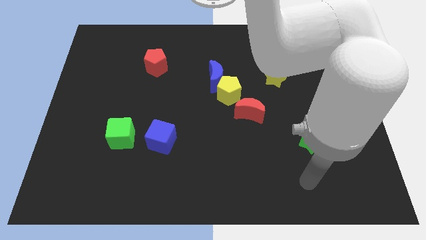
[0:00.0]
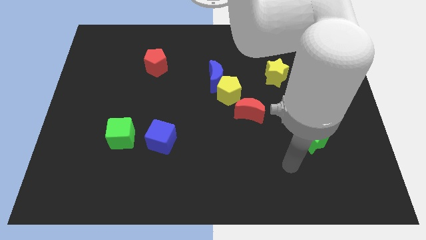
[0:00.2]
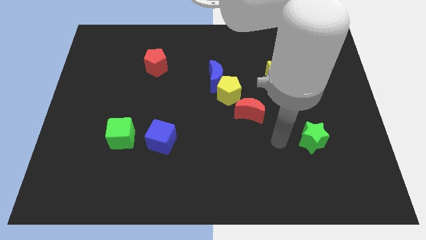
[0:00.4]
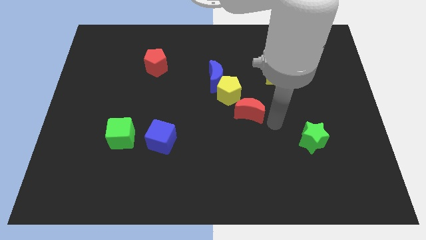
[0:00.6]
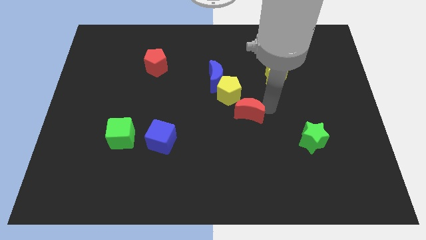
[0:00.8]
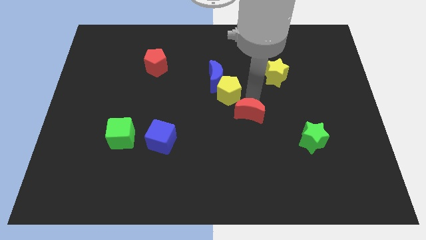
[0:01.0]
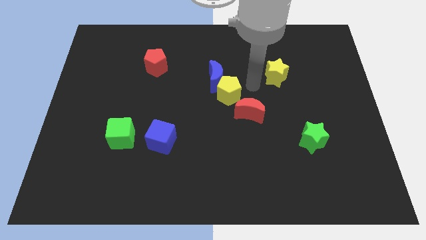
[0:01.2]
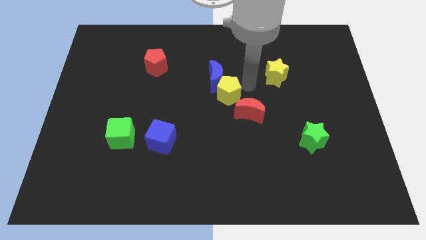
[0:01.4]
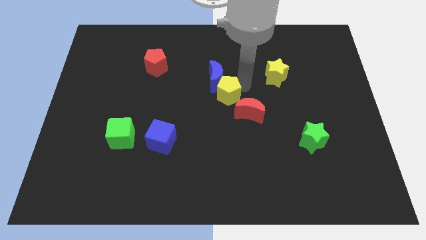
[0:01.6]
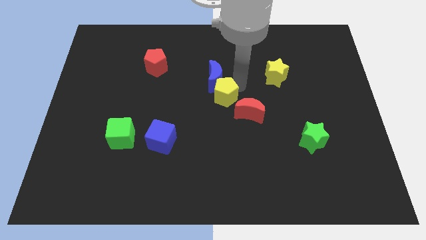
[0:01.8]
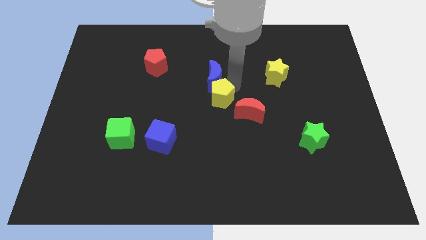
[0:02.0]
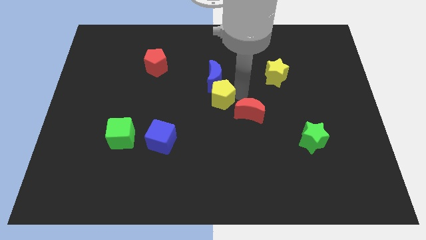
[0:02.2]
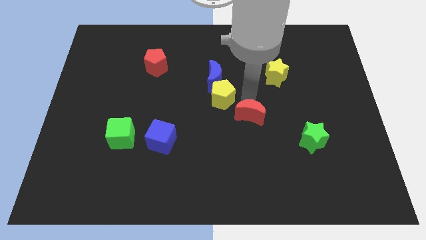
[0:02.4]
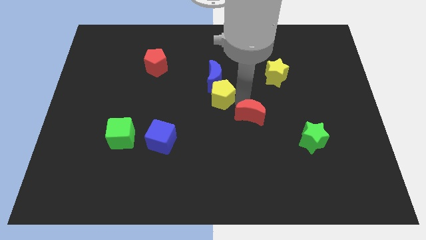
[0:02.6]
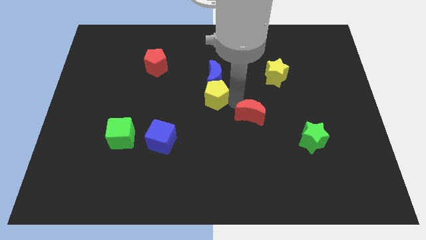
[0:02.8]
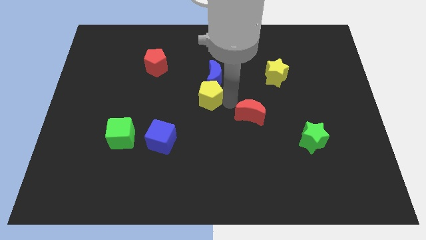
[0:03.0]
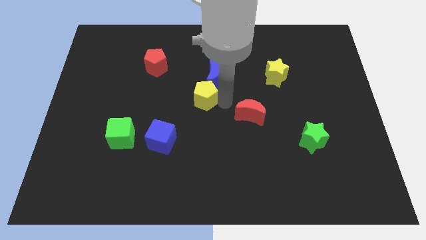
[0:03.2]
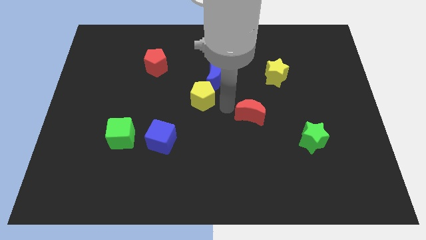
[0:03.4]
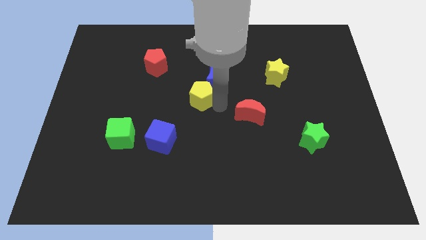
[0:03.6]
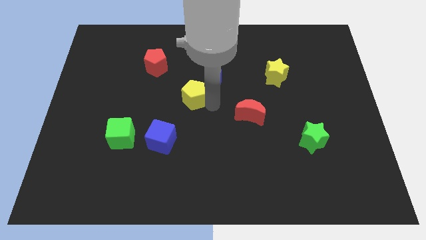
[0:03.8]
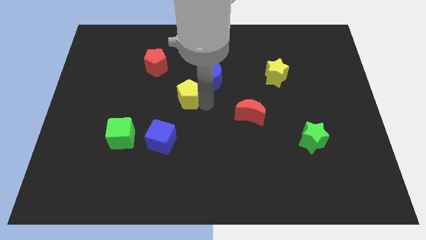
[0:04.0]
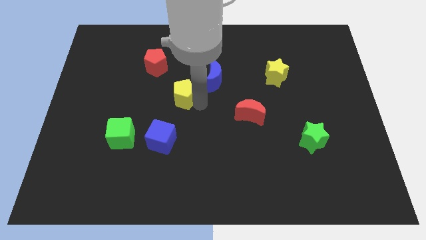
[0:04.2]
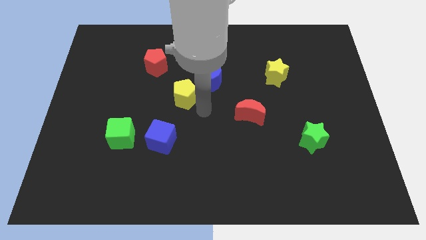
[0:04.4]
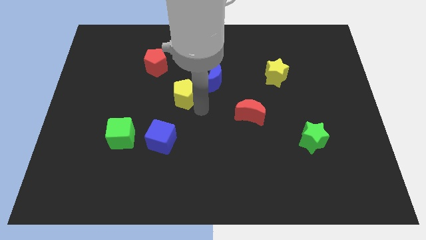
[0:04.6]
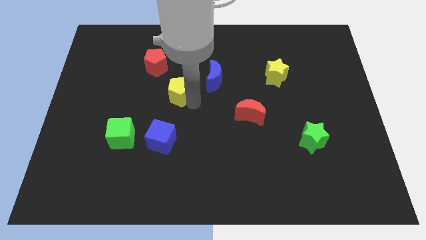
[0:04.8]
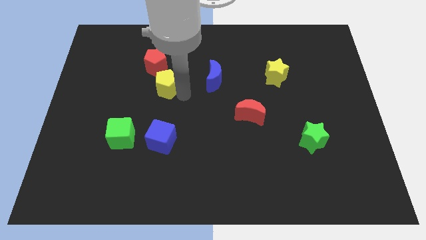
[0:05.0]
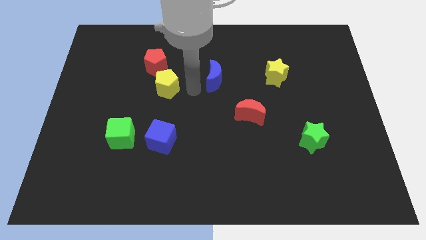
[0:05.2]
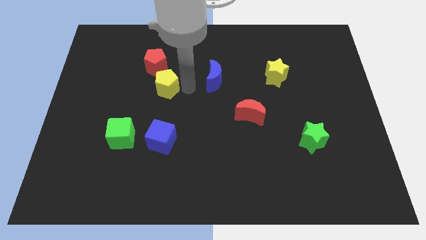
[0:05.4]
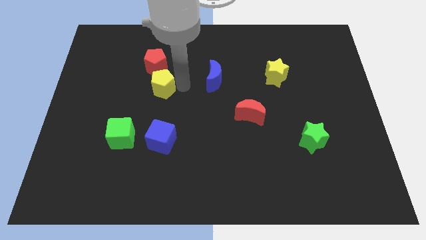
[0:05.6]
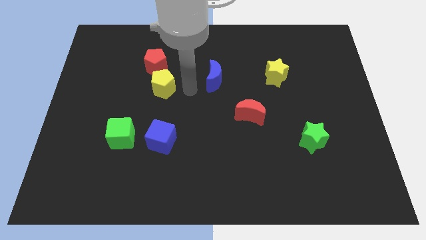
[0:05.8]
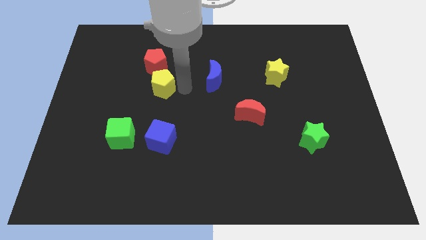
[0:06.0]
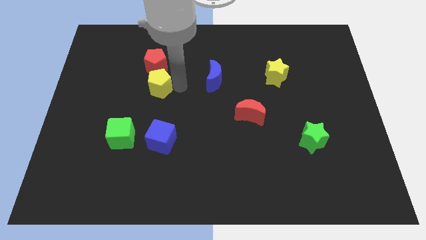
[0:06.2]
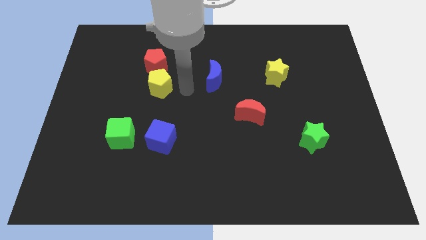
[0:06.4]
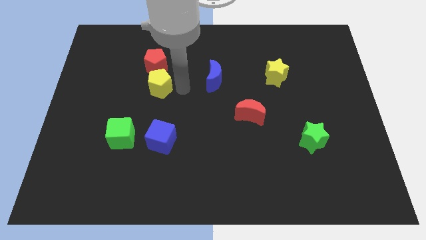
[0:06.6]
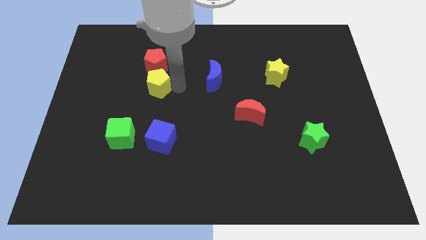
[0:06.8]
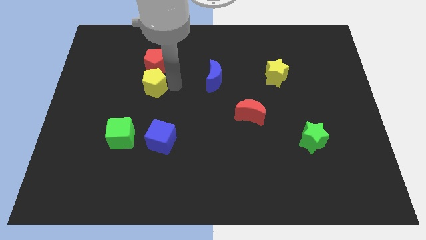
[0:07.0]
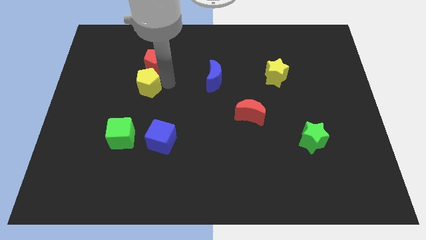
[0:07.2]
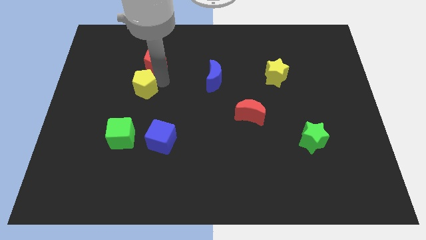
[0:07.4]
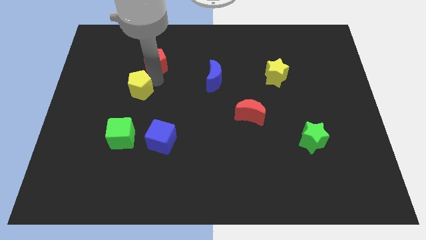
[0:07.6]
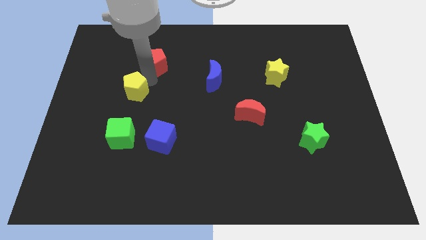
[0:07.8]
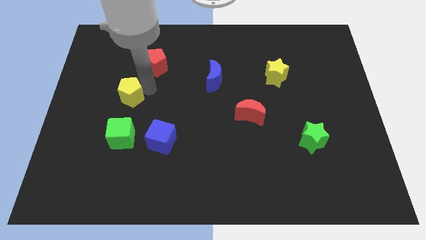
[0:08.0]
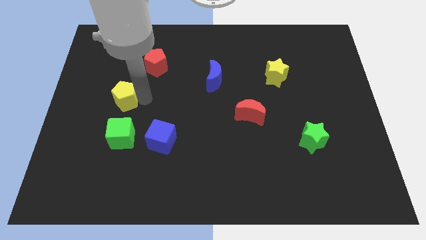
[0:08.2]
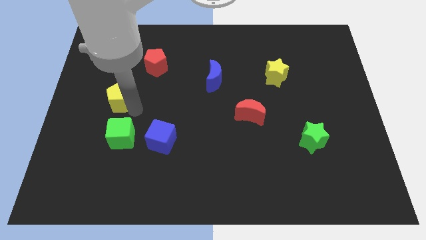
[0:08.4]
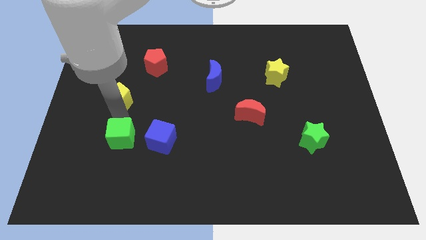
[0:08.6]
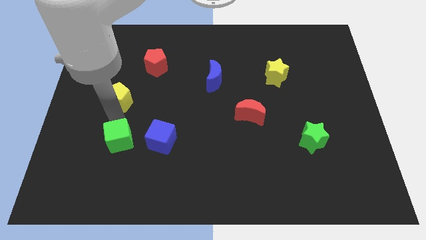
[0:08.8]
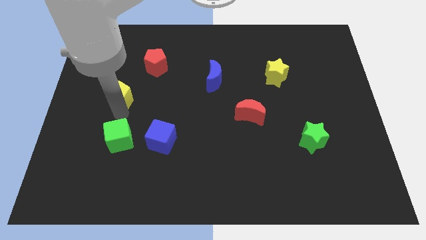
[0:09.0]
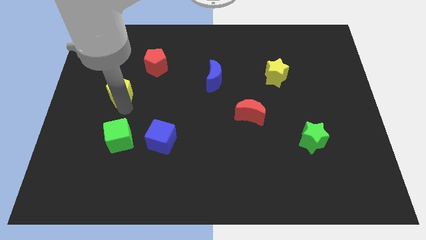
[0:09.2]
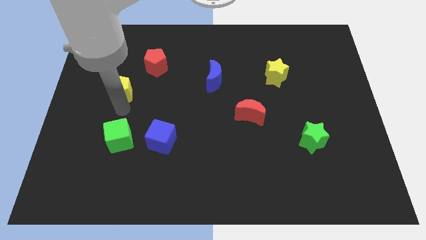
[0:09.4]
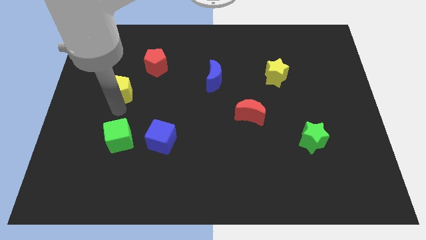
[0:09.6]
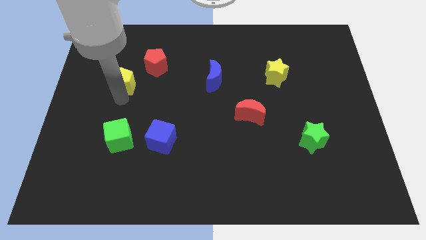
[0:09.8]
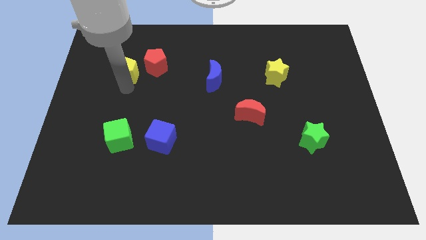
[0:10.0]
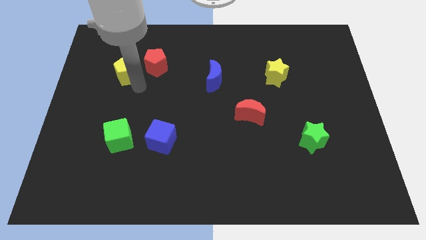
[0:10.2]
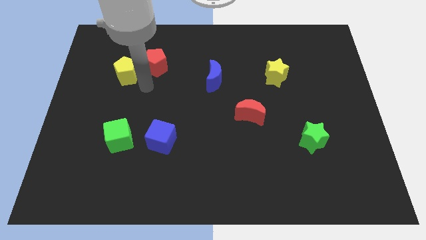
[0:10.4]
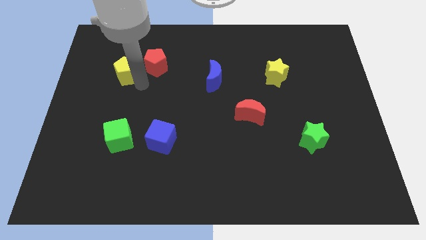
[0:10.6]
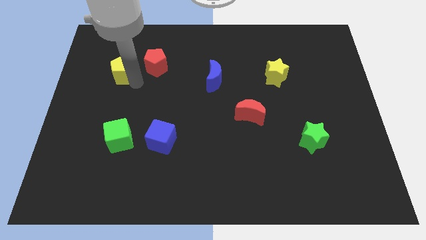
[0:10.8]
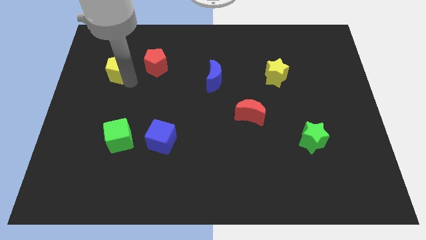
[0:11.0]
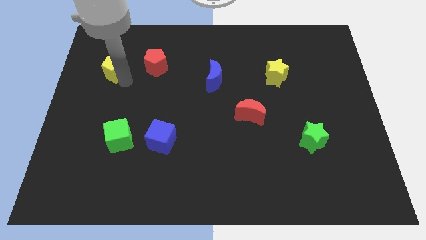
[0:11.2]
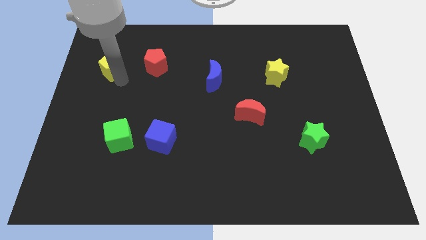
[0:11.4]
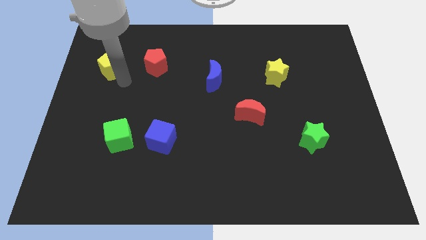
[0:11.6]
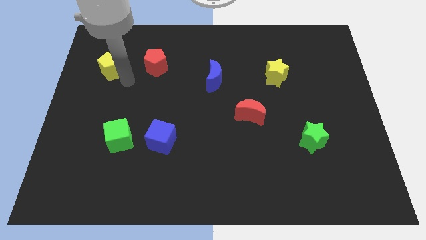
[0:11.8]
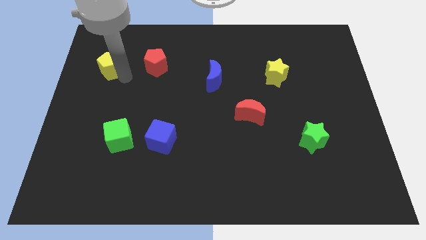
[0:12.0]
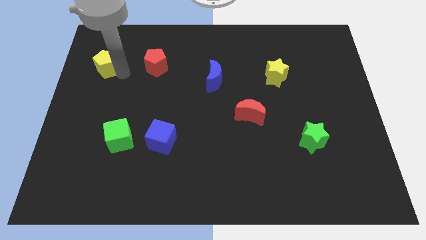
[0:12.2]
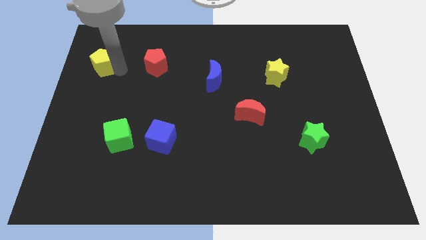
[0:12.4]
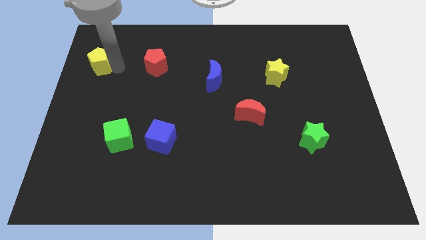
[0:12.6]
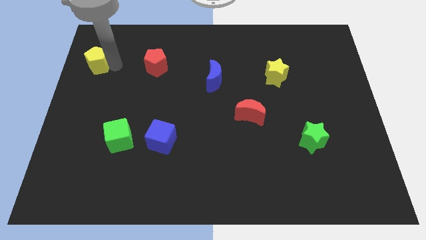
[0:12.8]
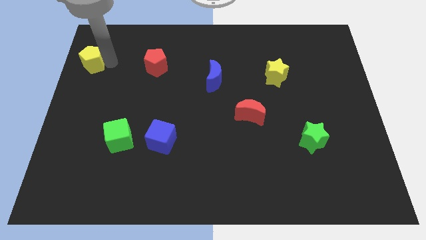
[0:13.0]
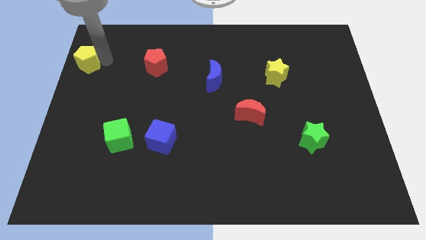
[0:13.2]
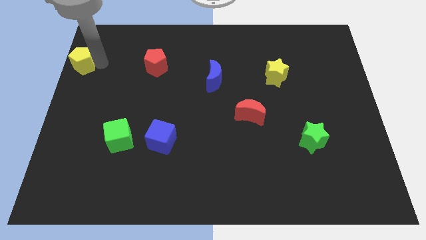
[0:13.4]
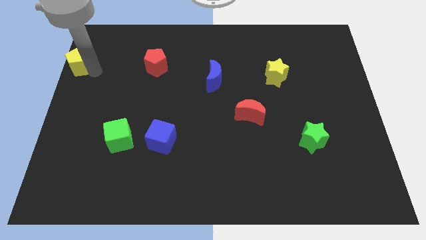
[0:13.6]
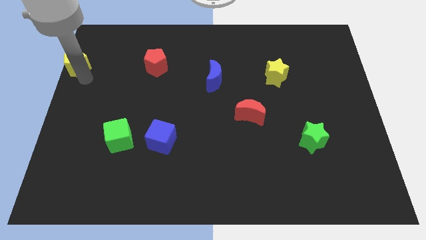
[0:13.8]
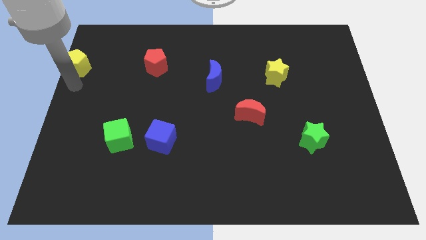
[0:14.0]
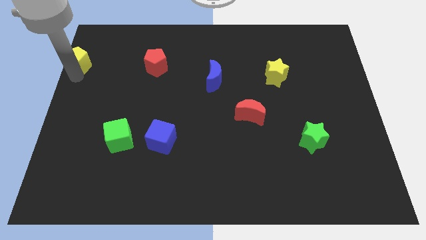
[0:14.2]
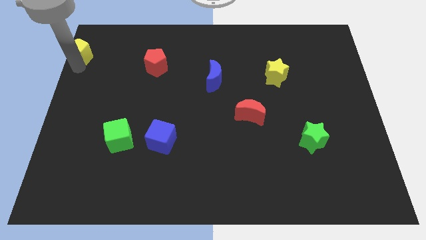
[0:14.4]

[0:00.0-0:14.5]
put the yellow pentagon to the upper left corner
